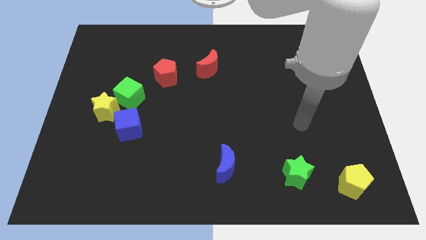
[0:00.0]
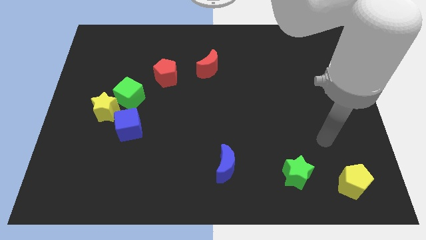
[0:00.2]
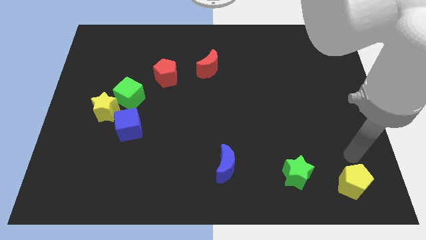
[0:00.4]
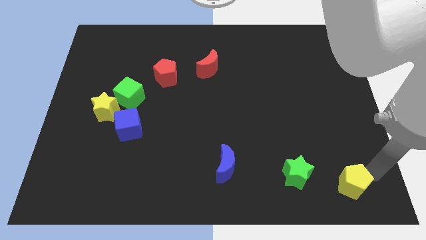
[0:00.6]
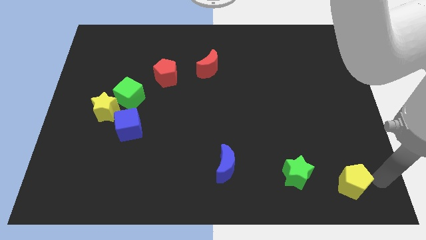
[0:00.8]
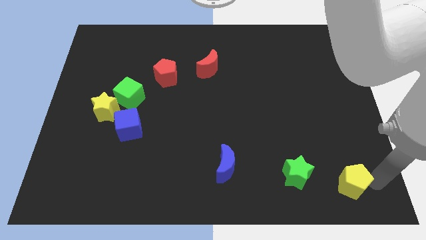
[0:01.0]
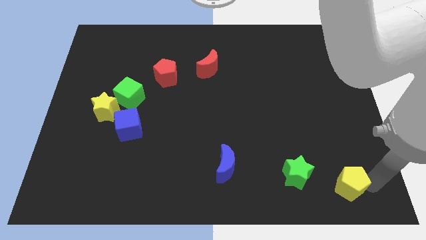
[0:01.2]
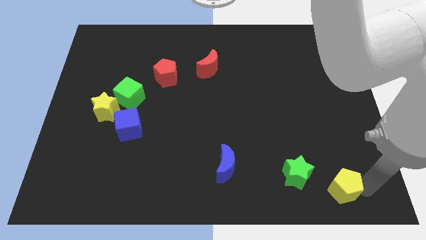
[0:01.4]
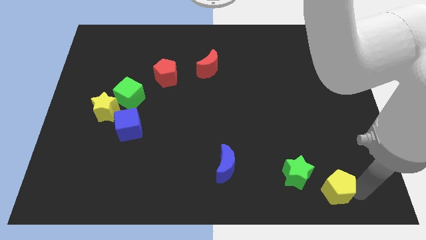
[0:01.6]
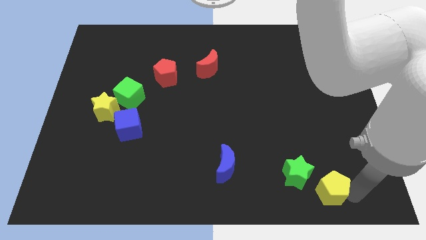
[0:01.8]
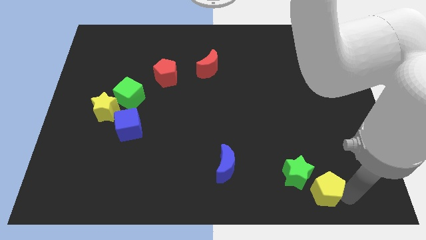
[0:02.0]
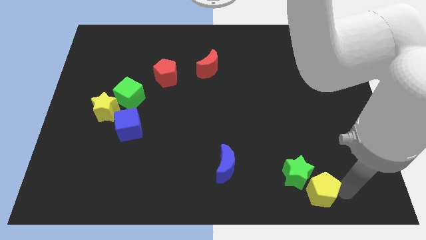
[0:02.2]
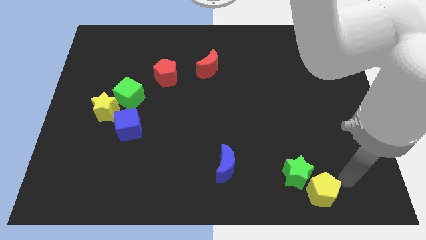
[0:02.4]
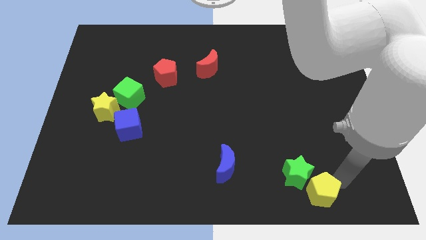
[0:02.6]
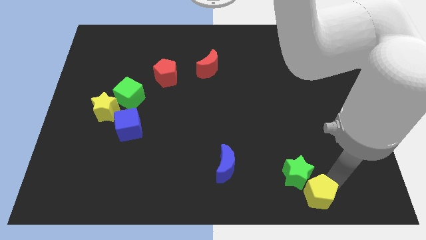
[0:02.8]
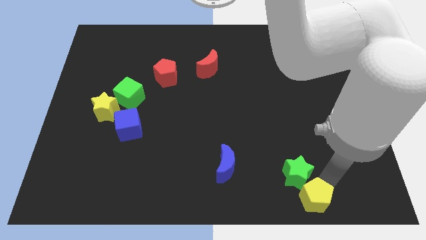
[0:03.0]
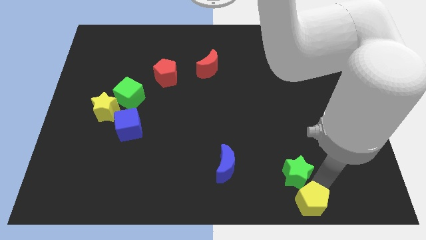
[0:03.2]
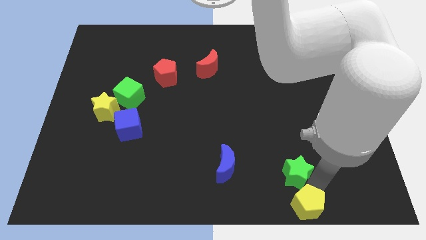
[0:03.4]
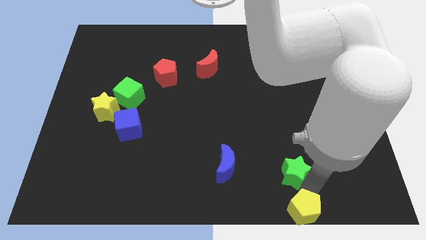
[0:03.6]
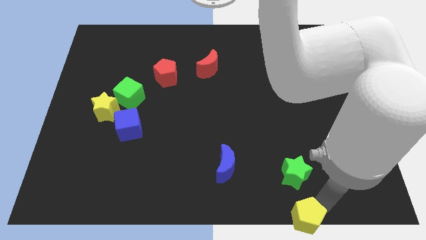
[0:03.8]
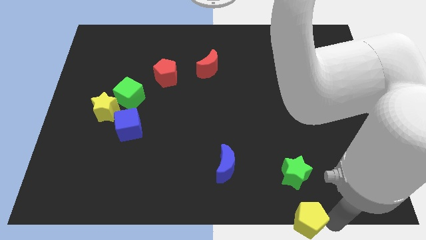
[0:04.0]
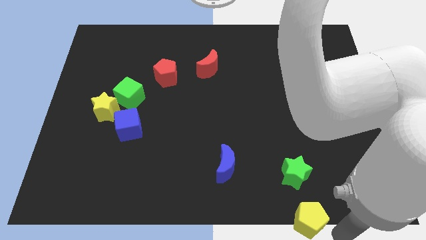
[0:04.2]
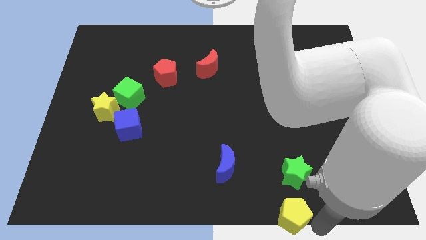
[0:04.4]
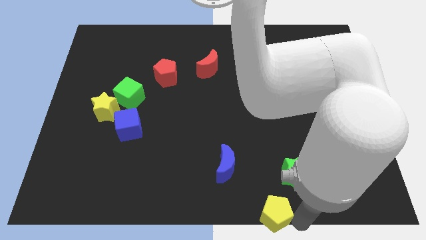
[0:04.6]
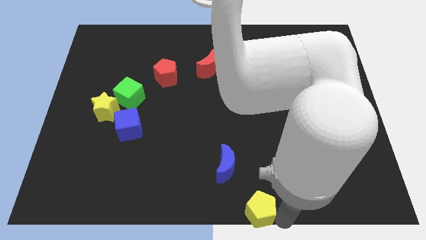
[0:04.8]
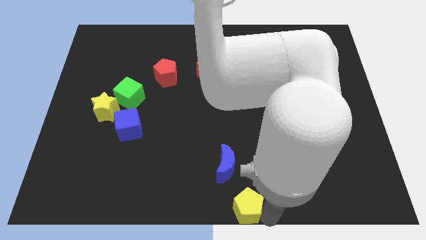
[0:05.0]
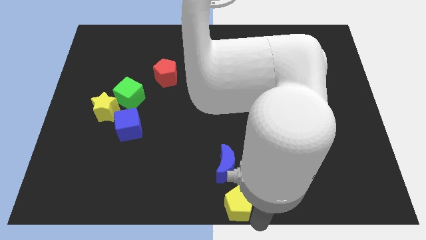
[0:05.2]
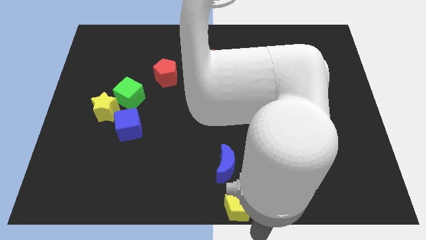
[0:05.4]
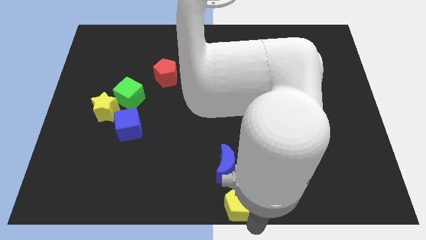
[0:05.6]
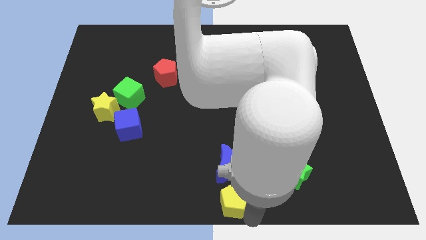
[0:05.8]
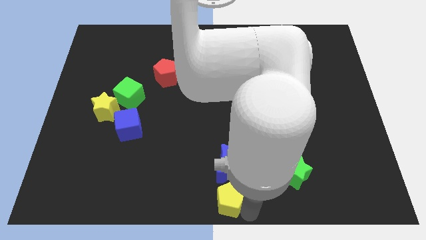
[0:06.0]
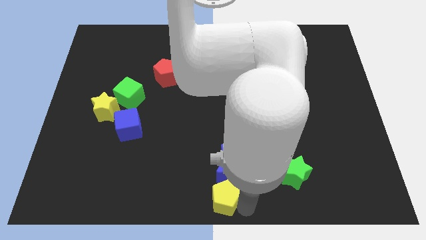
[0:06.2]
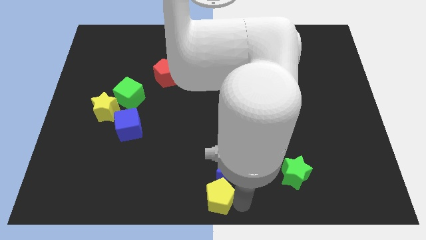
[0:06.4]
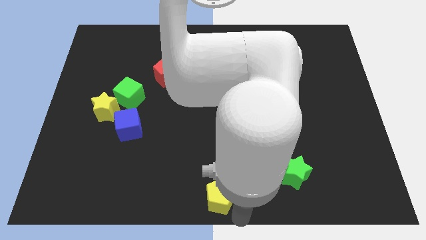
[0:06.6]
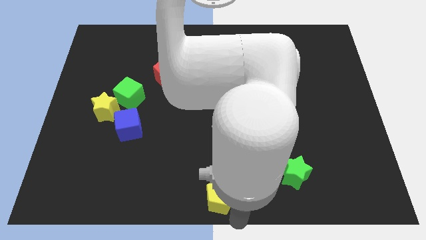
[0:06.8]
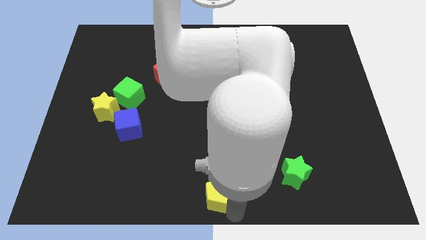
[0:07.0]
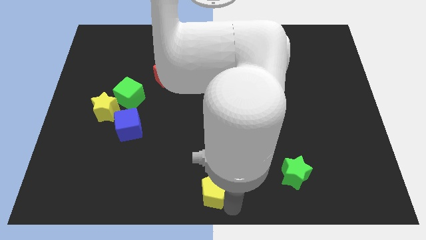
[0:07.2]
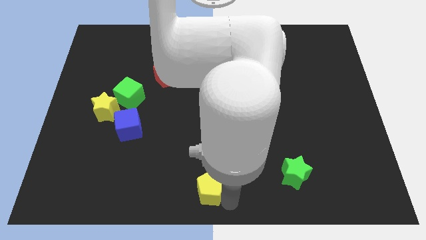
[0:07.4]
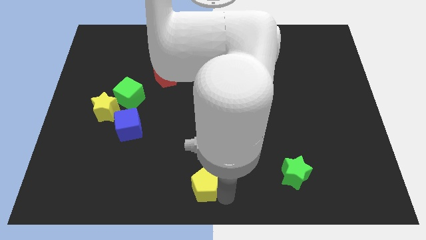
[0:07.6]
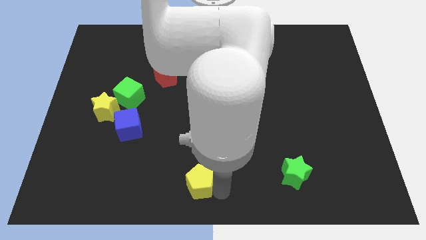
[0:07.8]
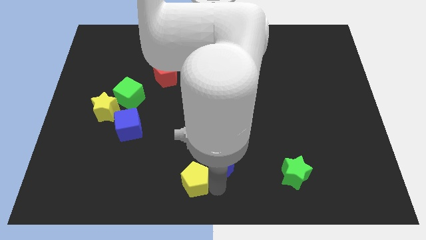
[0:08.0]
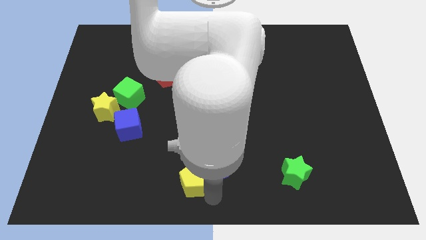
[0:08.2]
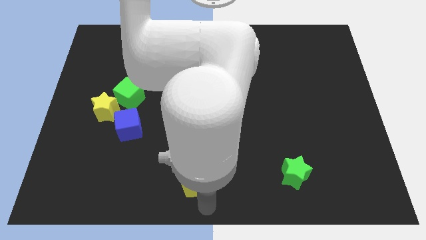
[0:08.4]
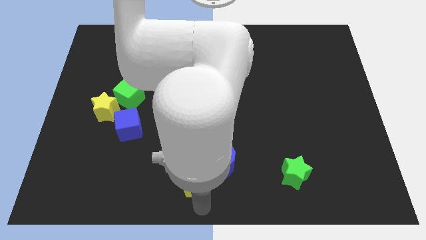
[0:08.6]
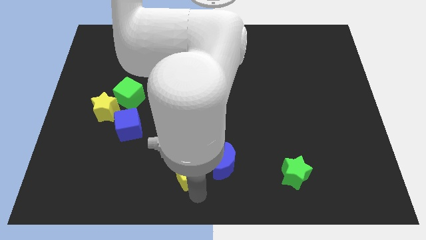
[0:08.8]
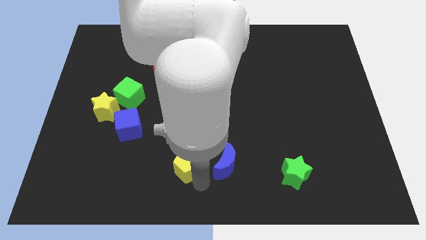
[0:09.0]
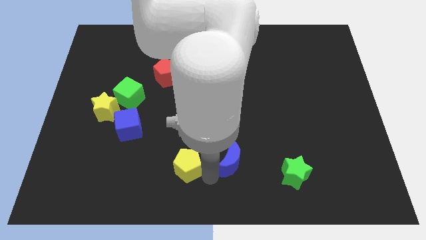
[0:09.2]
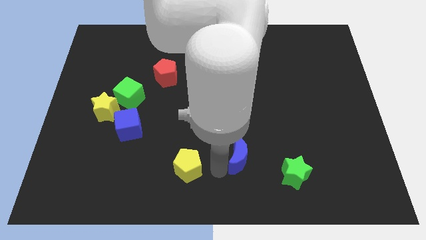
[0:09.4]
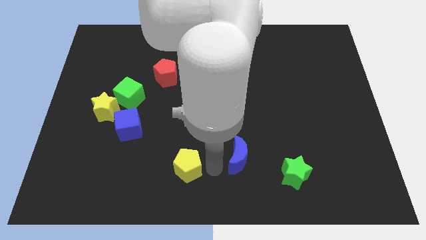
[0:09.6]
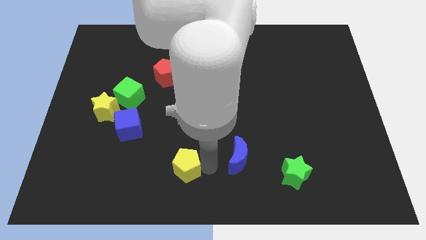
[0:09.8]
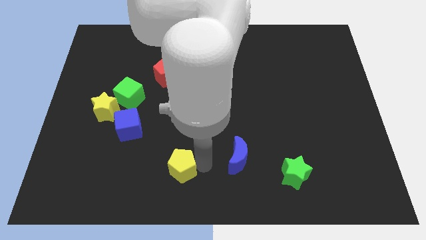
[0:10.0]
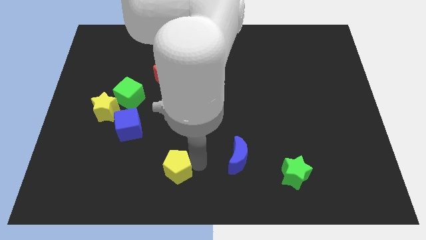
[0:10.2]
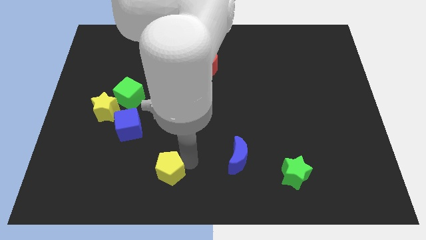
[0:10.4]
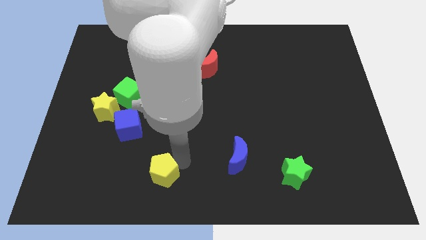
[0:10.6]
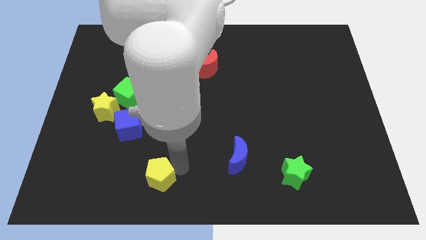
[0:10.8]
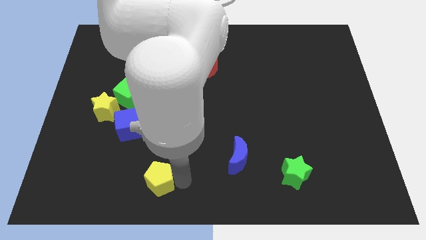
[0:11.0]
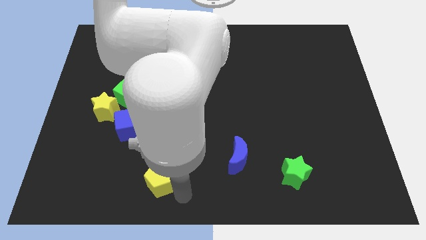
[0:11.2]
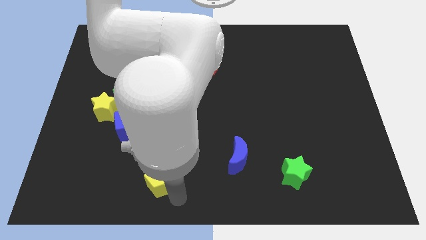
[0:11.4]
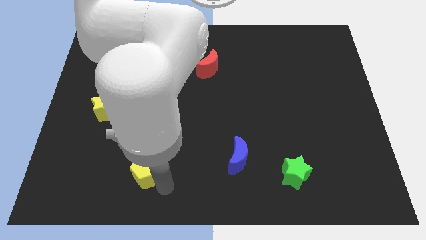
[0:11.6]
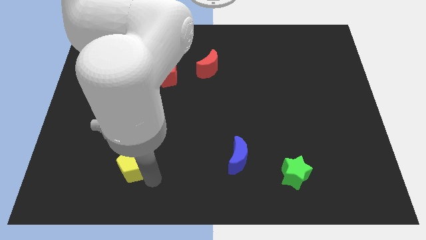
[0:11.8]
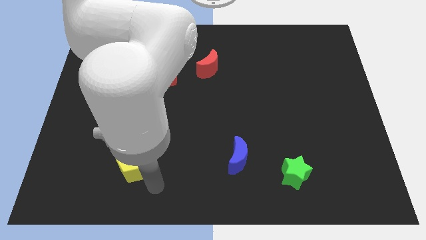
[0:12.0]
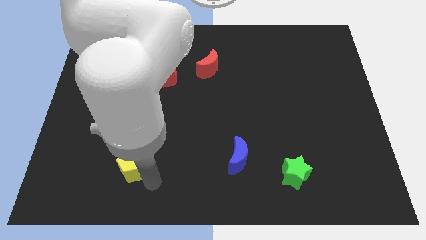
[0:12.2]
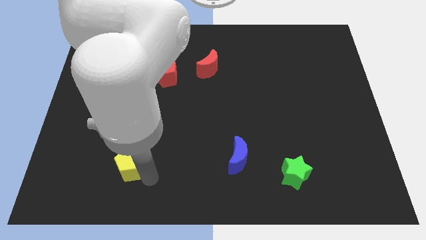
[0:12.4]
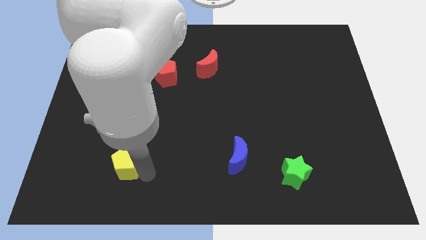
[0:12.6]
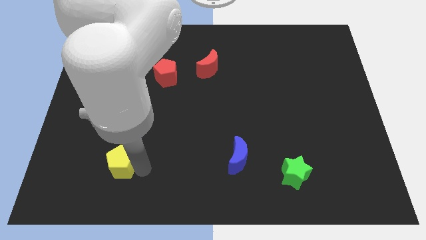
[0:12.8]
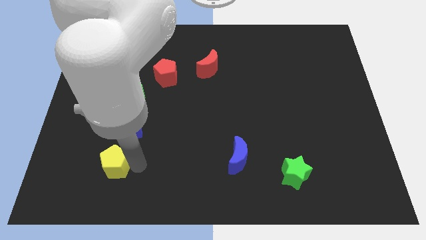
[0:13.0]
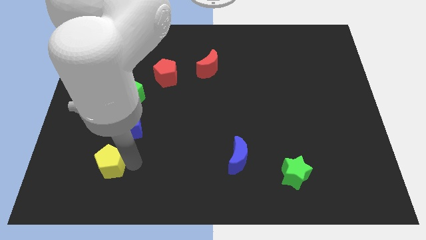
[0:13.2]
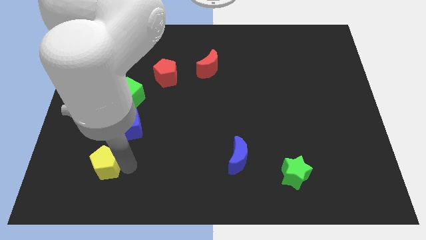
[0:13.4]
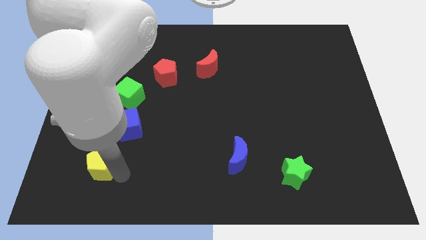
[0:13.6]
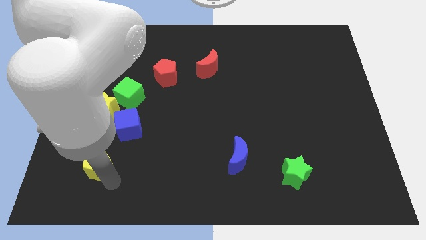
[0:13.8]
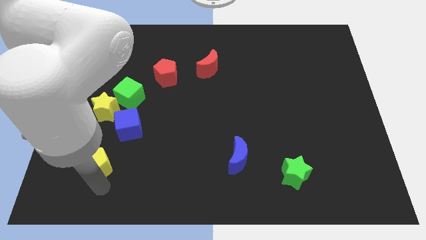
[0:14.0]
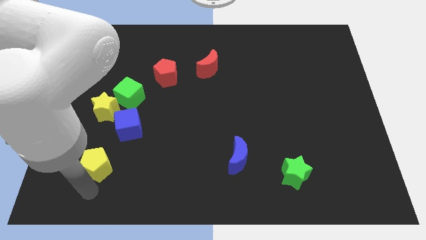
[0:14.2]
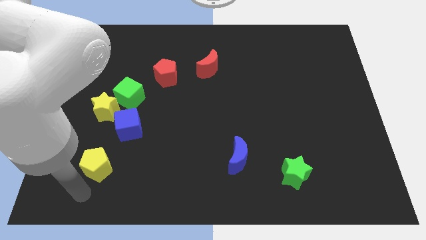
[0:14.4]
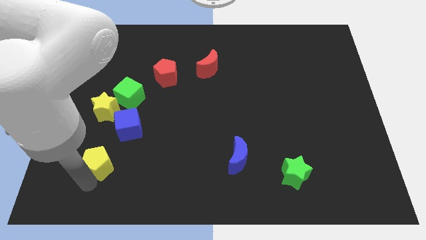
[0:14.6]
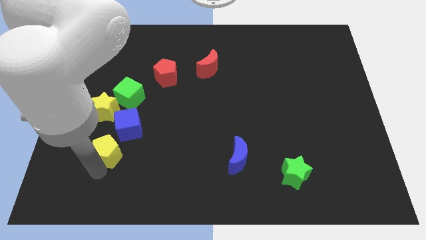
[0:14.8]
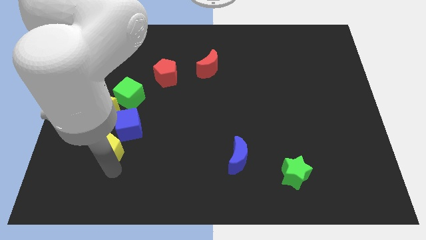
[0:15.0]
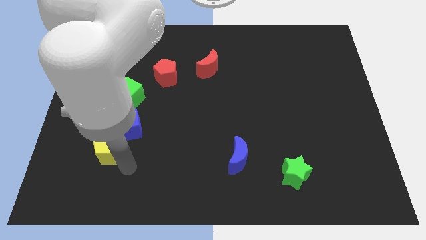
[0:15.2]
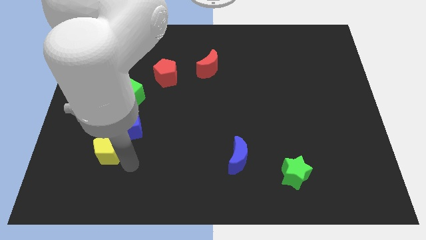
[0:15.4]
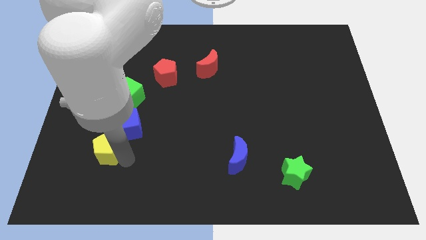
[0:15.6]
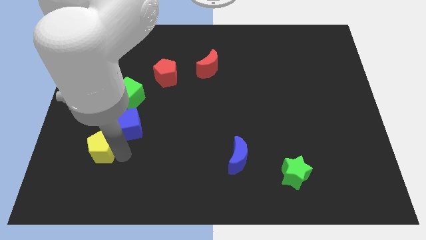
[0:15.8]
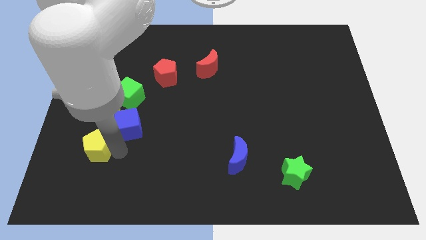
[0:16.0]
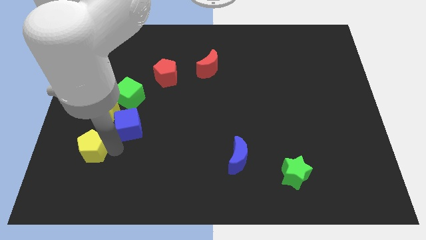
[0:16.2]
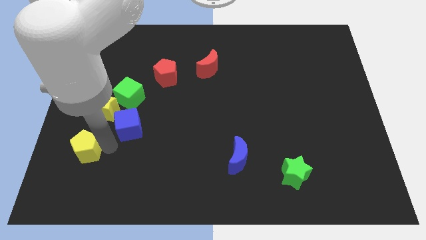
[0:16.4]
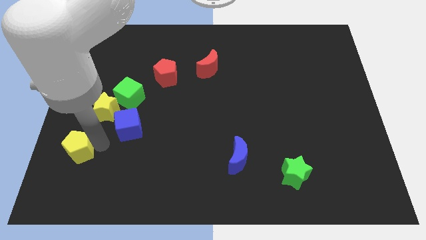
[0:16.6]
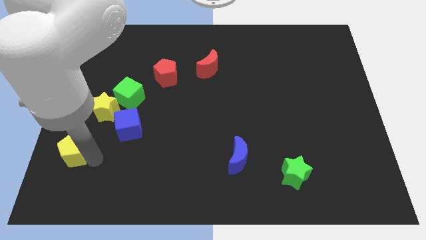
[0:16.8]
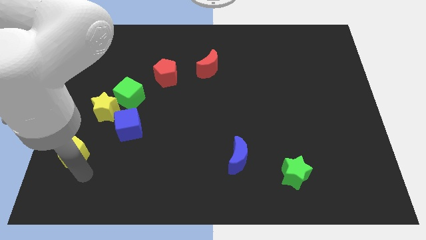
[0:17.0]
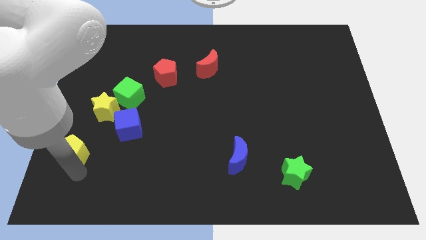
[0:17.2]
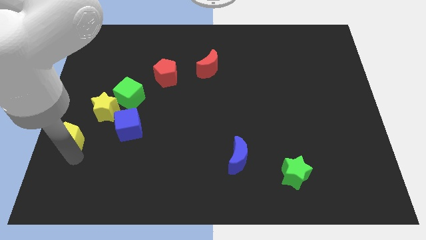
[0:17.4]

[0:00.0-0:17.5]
move the yellow pentagon to the left side
